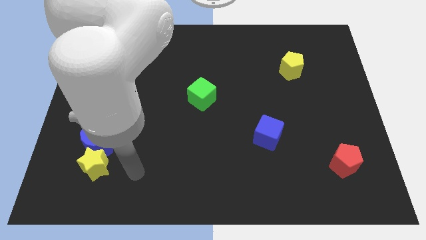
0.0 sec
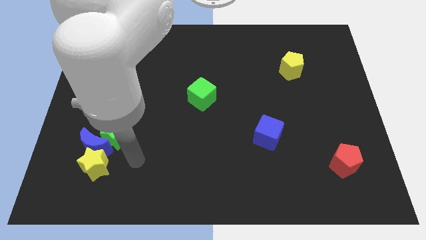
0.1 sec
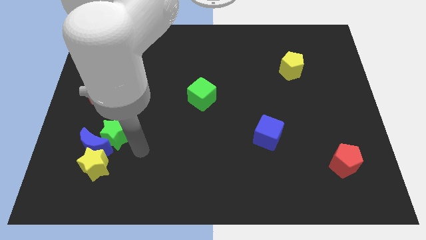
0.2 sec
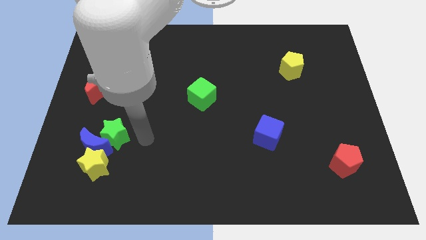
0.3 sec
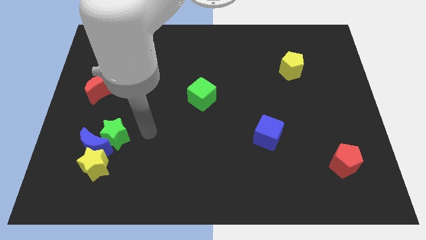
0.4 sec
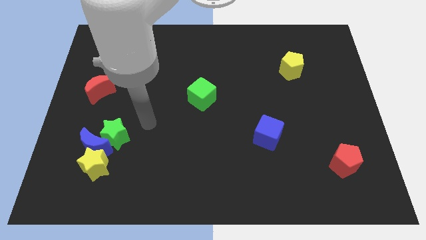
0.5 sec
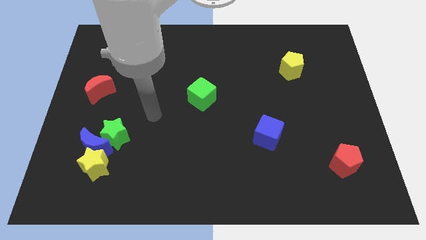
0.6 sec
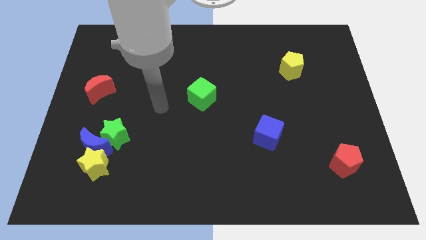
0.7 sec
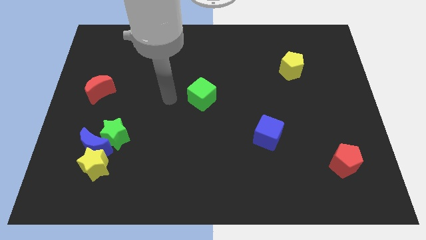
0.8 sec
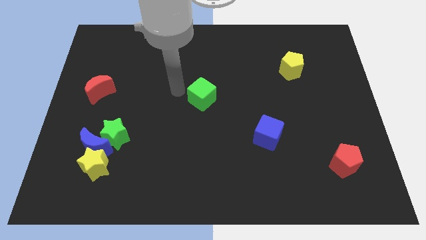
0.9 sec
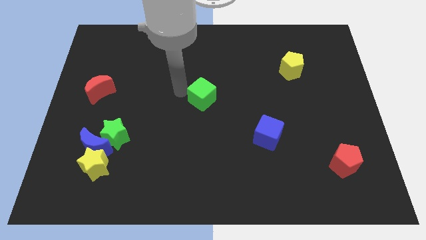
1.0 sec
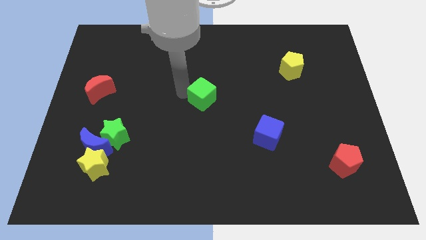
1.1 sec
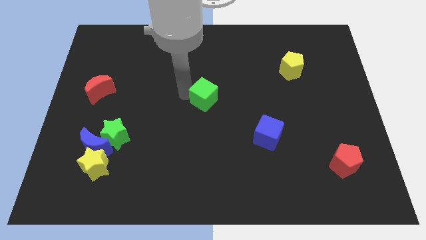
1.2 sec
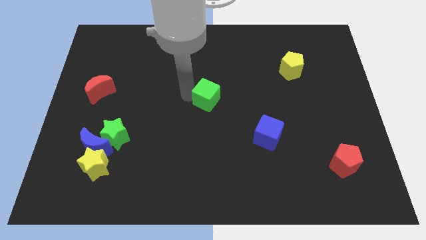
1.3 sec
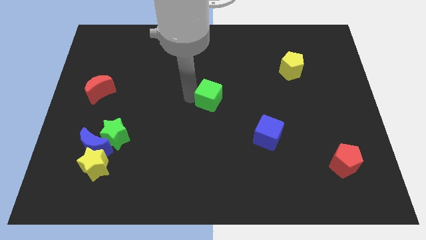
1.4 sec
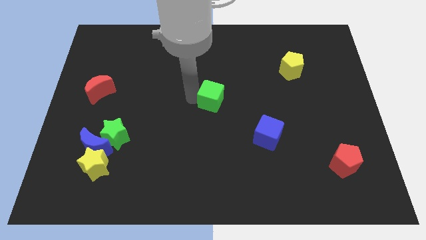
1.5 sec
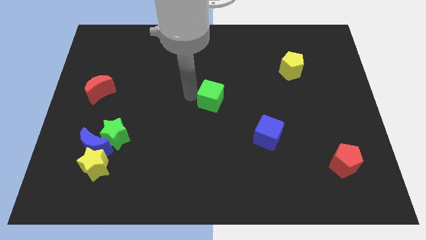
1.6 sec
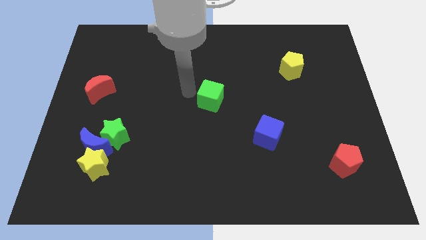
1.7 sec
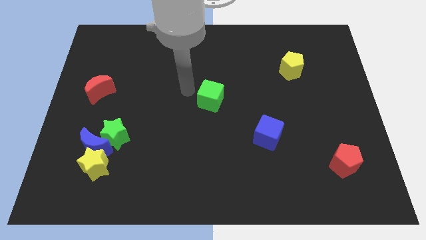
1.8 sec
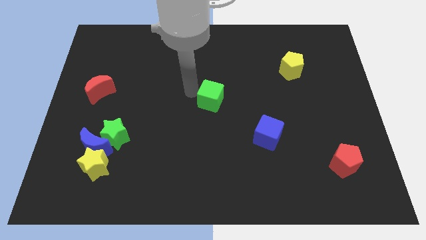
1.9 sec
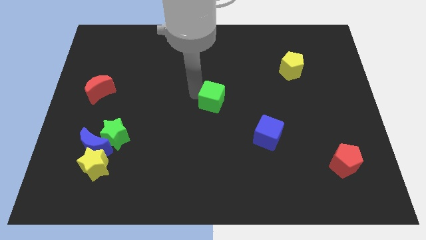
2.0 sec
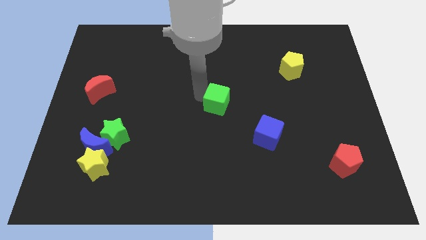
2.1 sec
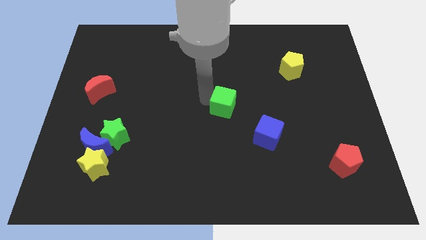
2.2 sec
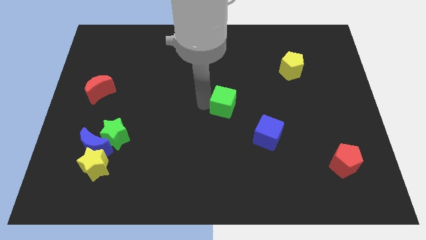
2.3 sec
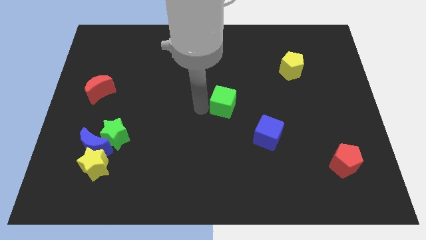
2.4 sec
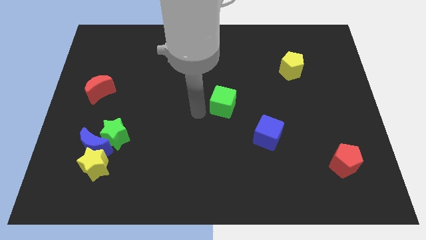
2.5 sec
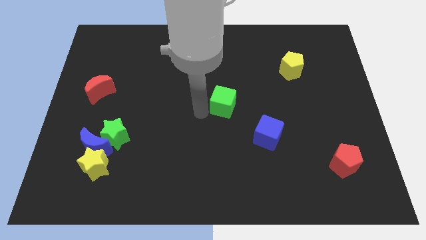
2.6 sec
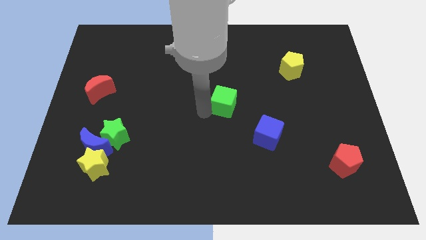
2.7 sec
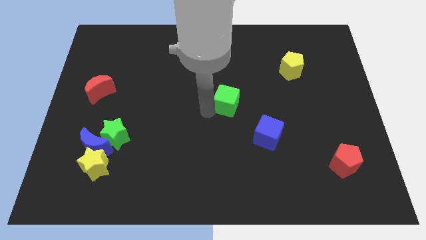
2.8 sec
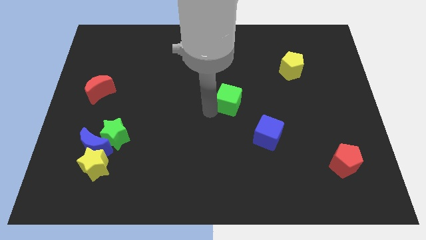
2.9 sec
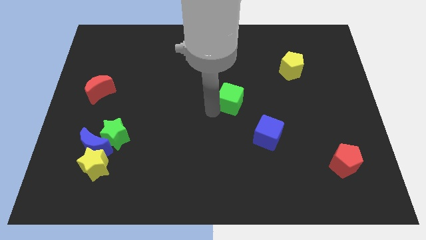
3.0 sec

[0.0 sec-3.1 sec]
push the green cube slightly to the right

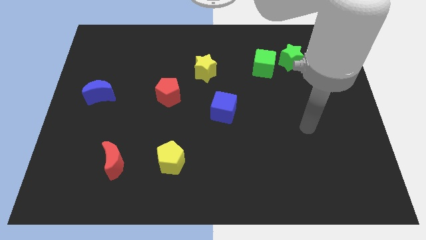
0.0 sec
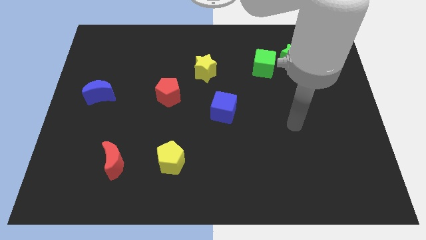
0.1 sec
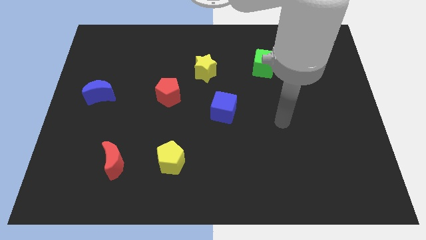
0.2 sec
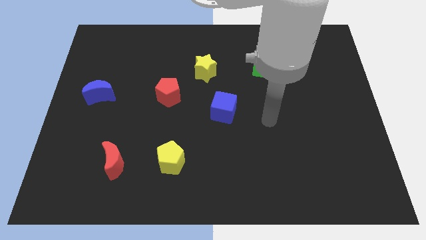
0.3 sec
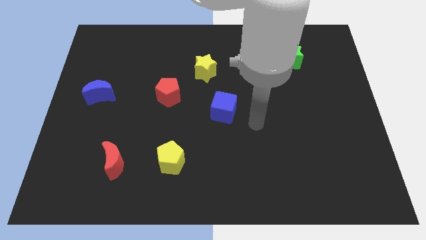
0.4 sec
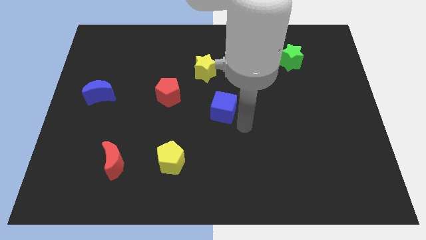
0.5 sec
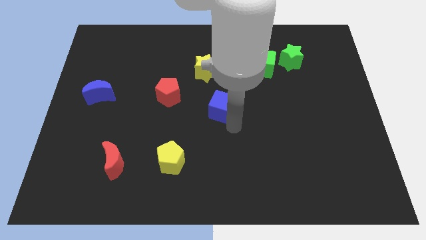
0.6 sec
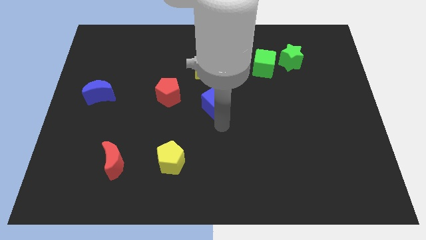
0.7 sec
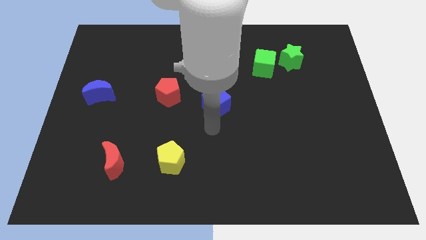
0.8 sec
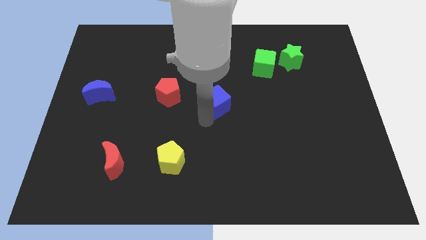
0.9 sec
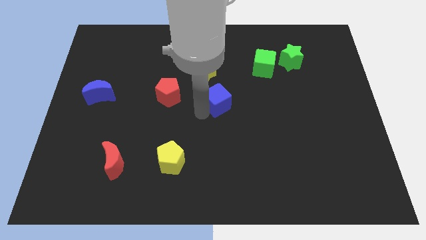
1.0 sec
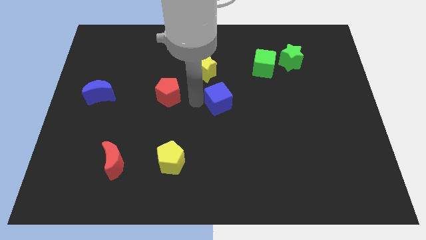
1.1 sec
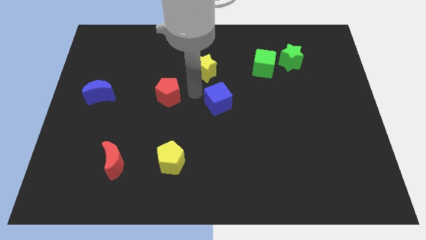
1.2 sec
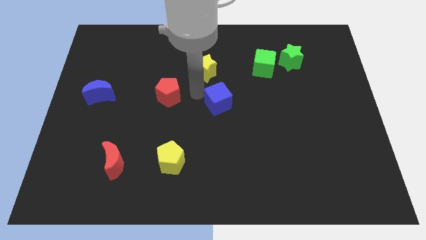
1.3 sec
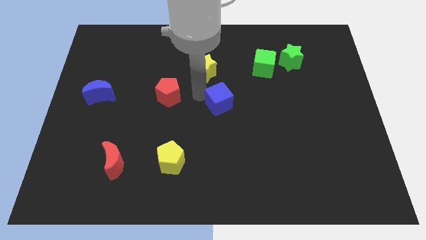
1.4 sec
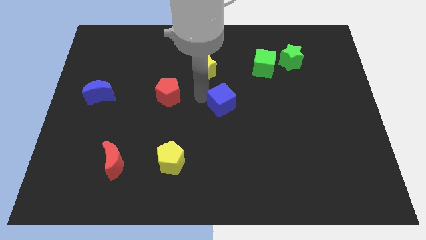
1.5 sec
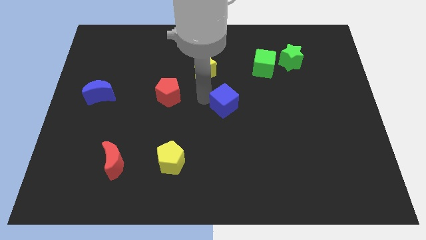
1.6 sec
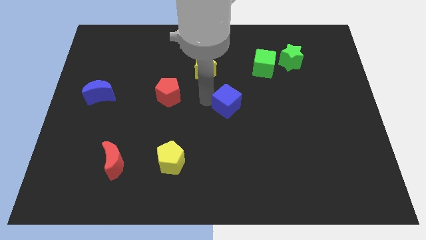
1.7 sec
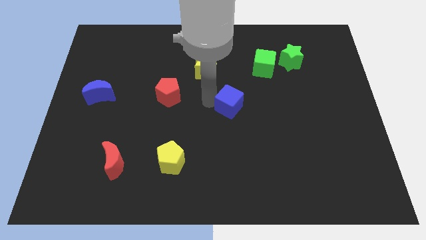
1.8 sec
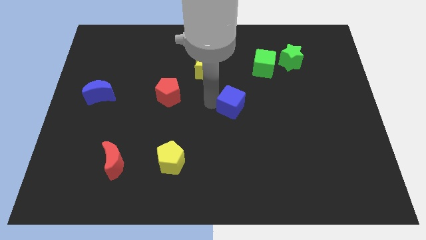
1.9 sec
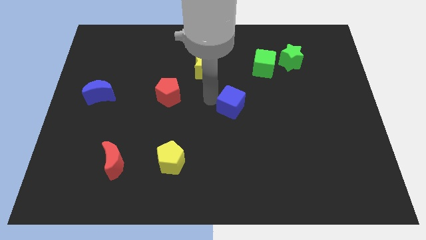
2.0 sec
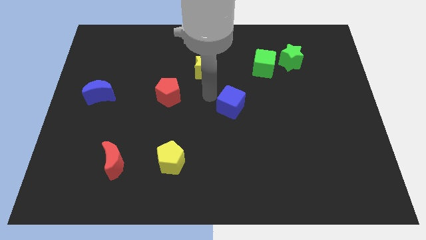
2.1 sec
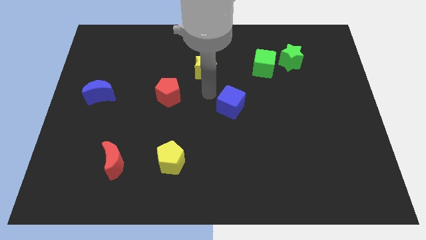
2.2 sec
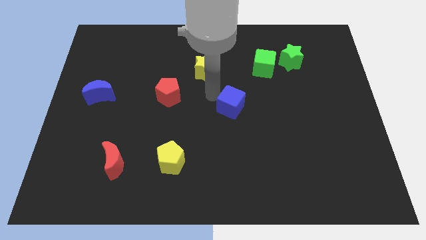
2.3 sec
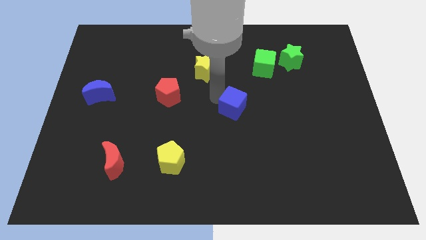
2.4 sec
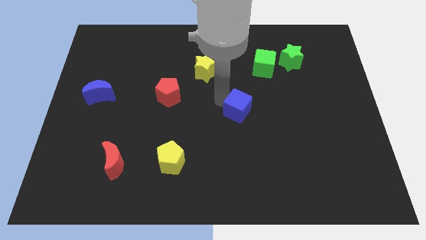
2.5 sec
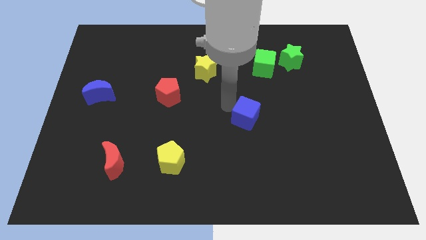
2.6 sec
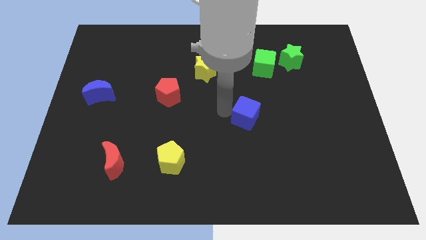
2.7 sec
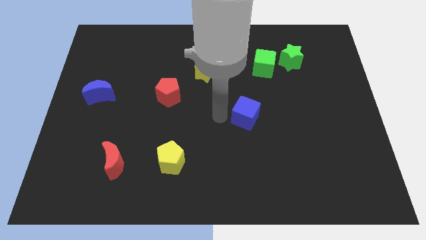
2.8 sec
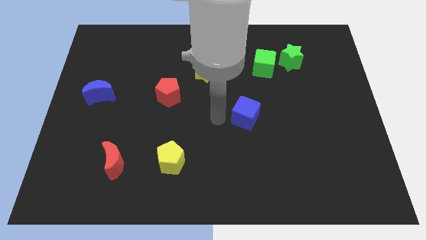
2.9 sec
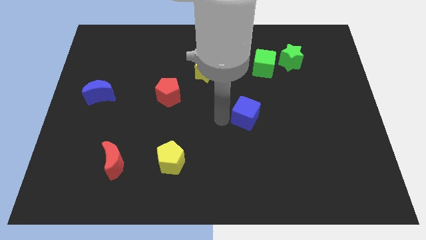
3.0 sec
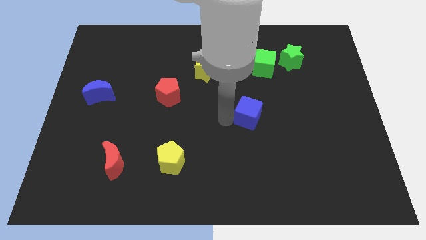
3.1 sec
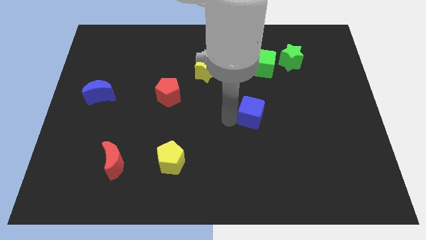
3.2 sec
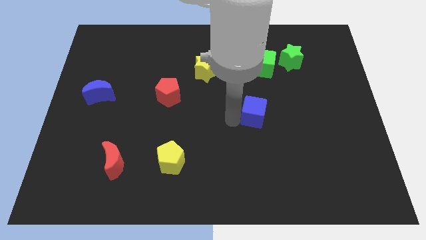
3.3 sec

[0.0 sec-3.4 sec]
push the blue cube a little bit right

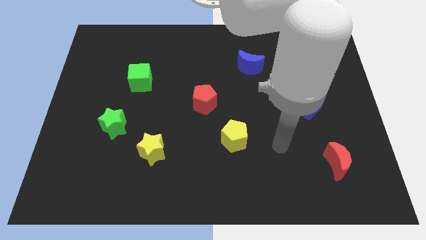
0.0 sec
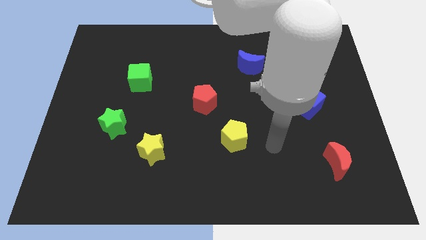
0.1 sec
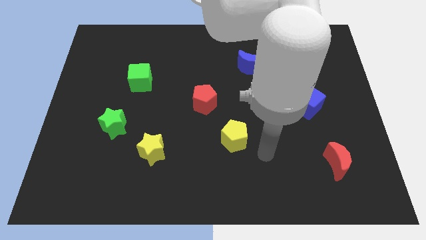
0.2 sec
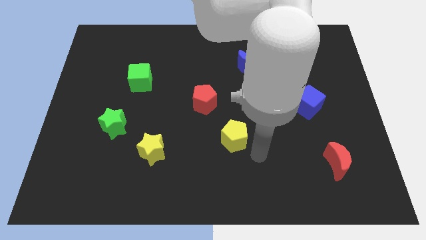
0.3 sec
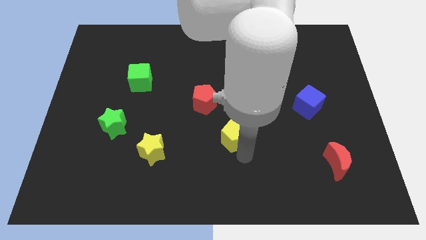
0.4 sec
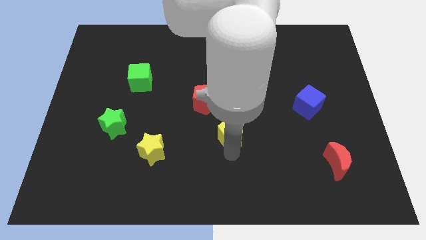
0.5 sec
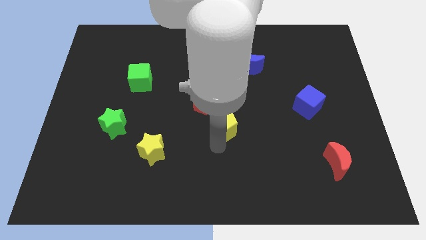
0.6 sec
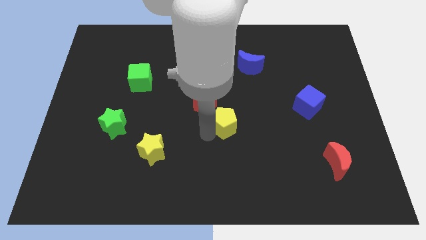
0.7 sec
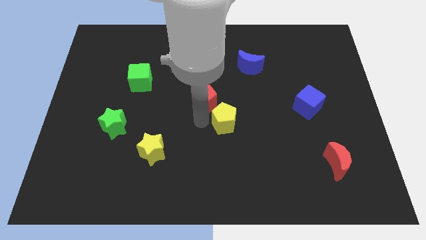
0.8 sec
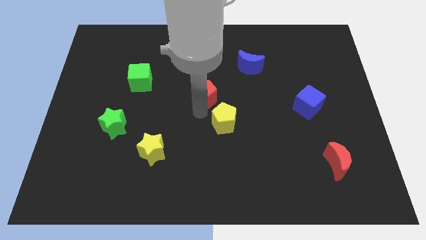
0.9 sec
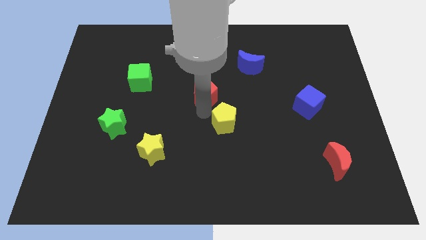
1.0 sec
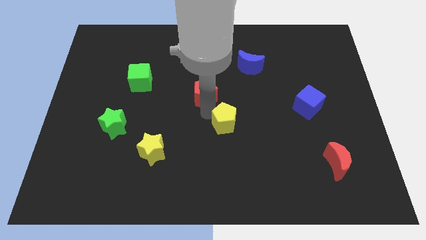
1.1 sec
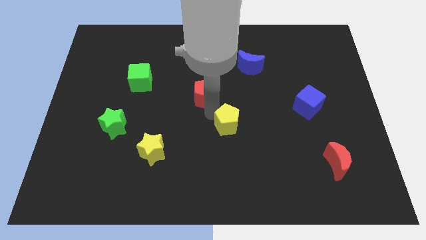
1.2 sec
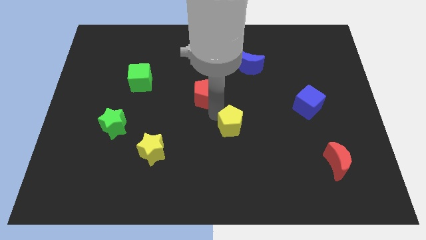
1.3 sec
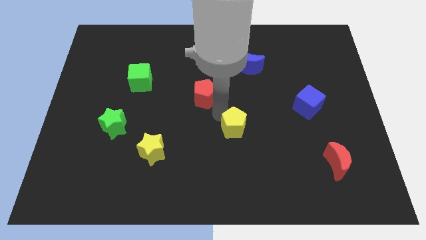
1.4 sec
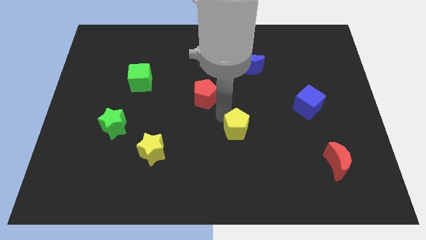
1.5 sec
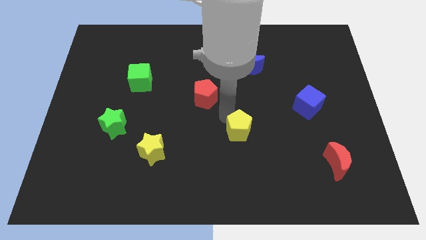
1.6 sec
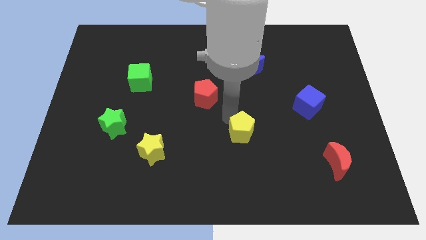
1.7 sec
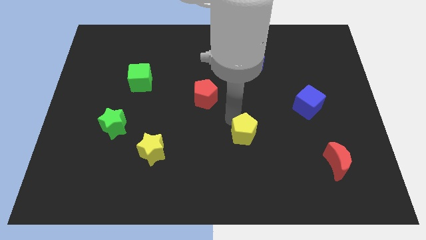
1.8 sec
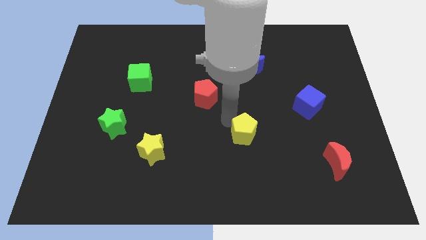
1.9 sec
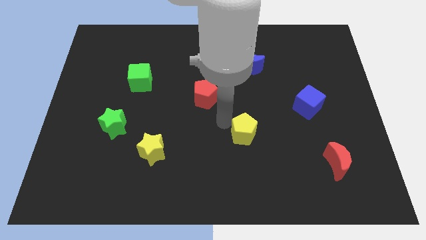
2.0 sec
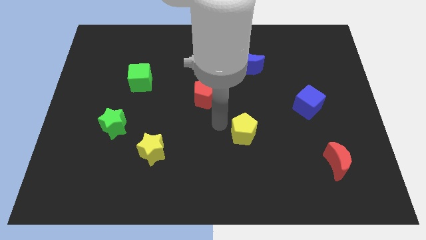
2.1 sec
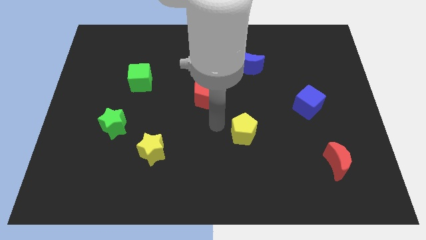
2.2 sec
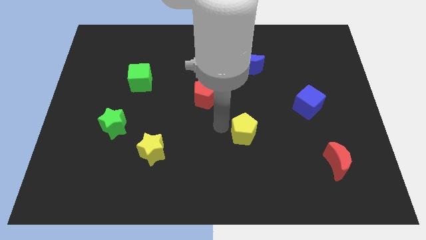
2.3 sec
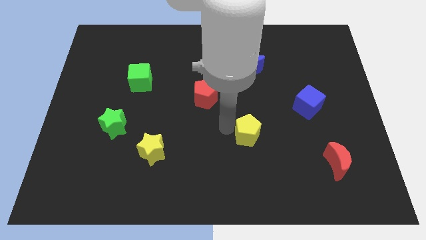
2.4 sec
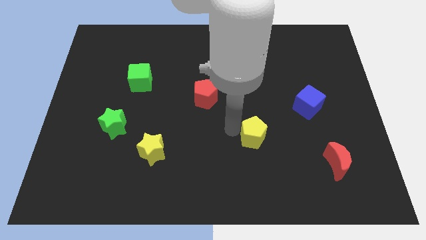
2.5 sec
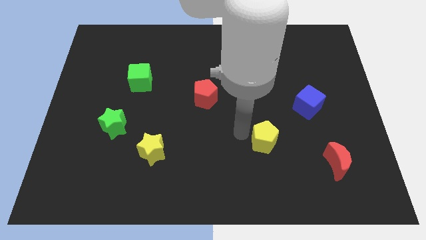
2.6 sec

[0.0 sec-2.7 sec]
slightly slide the yellow pentagon right
